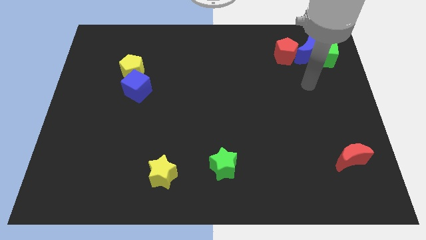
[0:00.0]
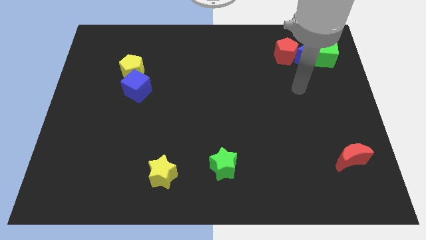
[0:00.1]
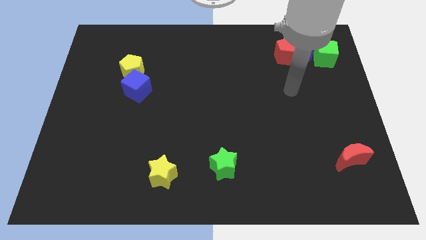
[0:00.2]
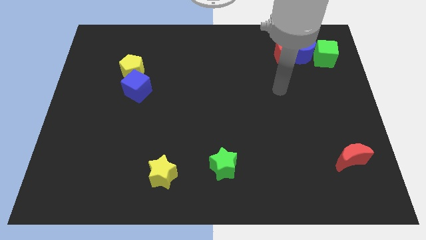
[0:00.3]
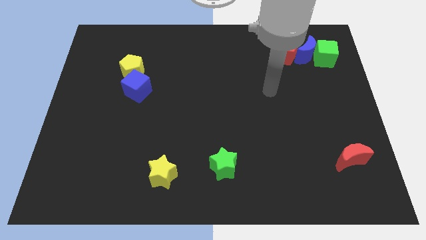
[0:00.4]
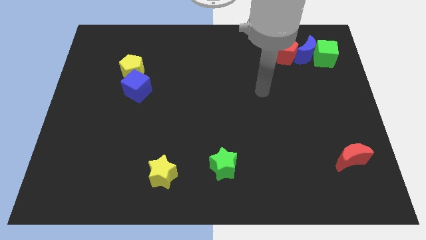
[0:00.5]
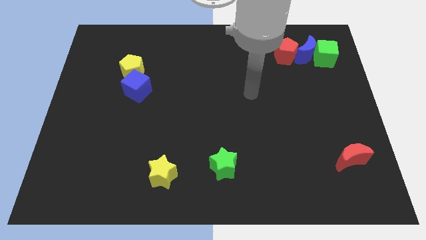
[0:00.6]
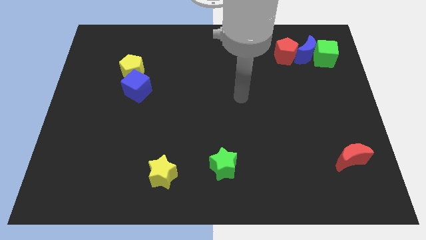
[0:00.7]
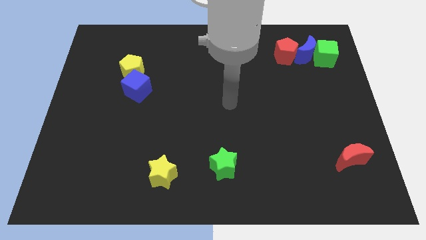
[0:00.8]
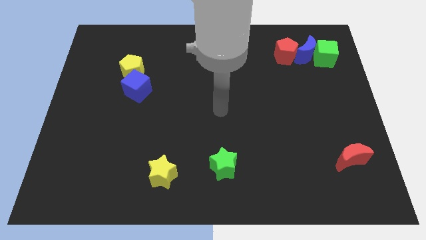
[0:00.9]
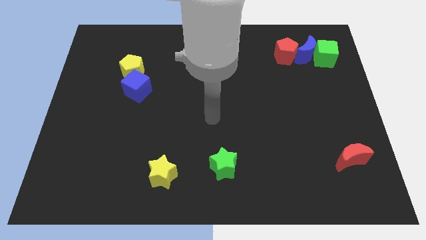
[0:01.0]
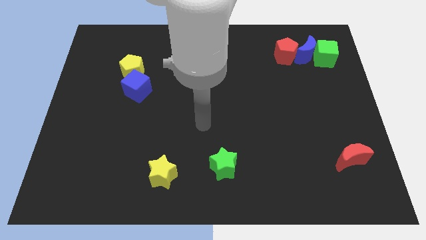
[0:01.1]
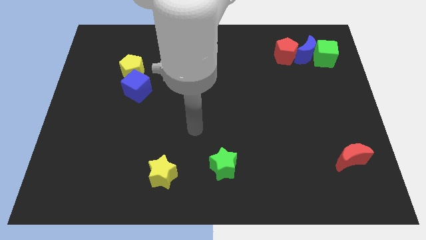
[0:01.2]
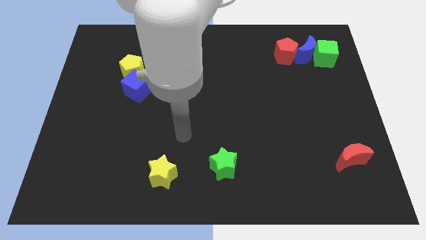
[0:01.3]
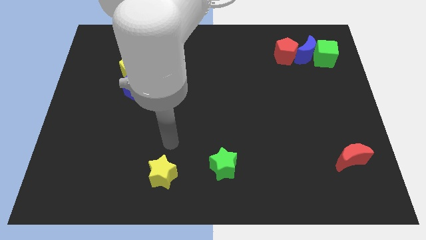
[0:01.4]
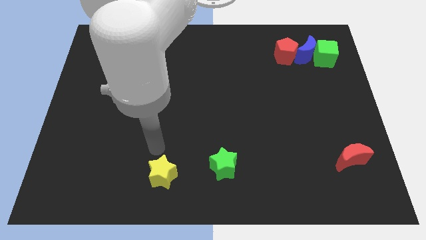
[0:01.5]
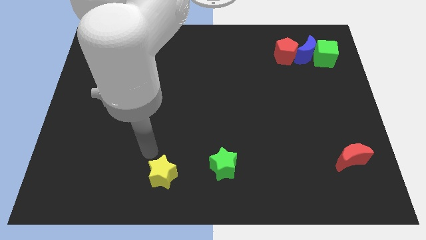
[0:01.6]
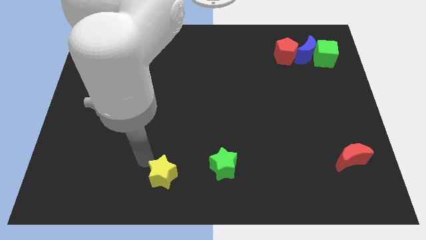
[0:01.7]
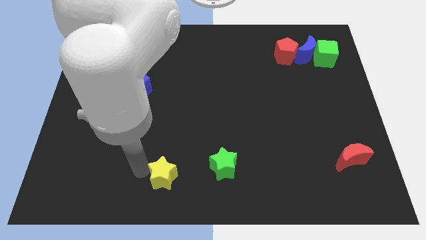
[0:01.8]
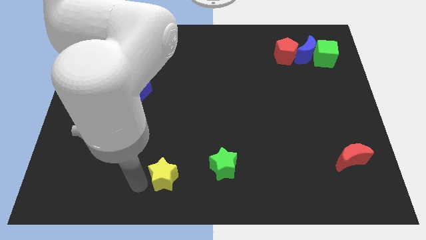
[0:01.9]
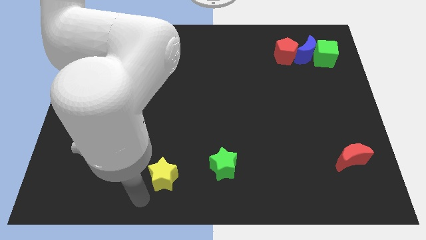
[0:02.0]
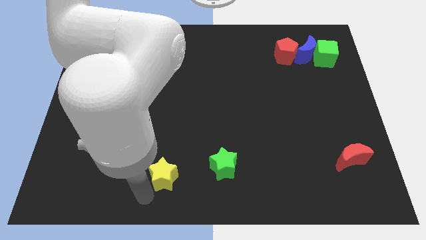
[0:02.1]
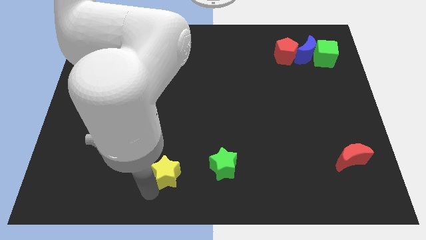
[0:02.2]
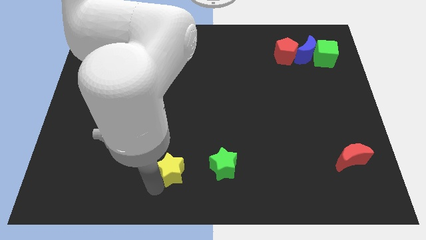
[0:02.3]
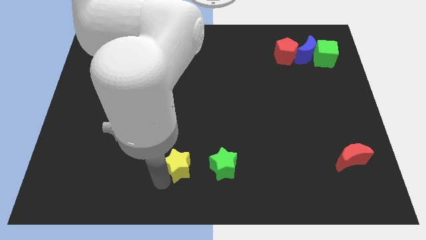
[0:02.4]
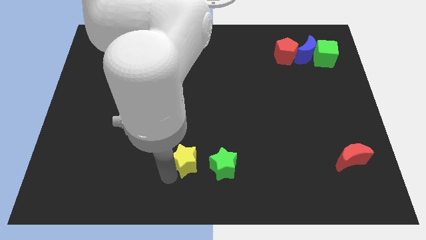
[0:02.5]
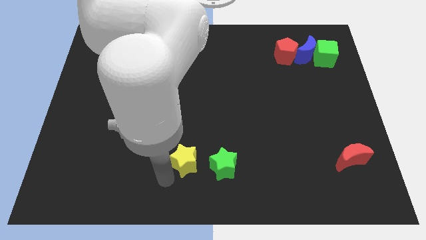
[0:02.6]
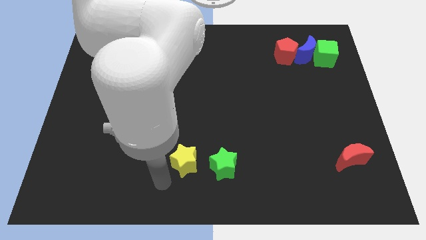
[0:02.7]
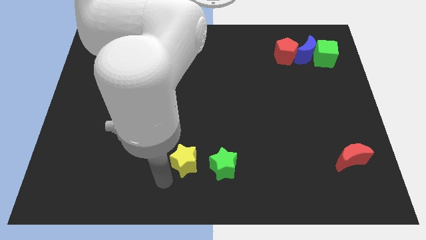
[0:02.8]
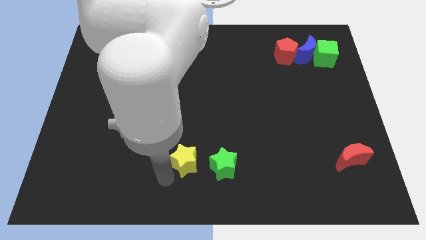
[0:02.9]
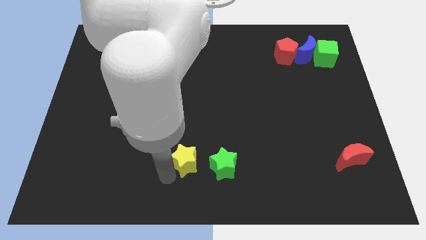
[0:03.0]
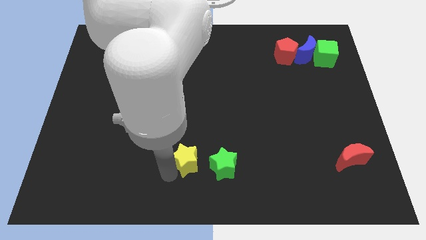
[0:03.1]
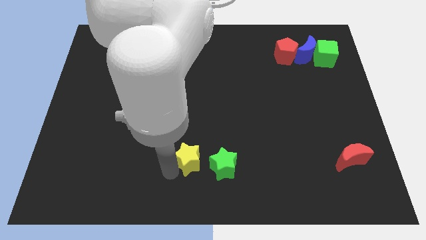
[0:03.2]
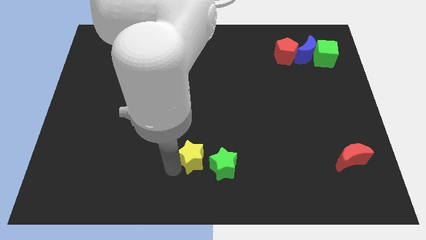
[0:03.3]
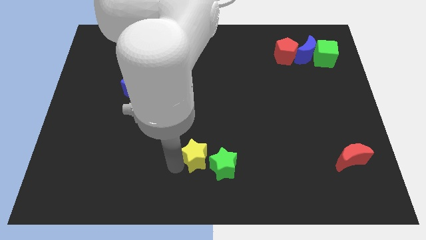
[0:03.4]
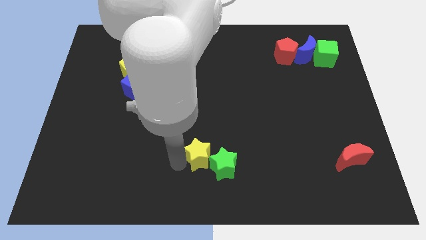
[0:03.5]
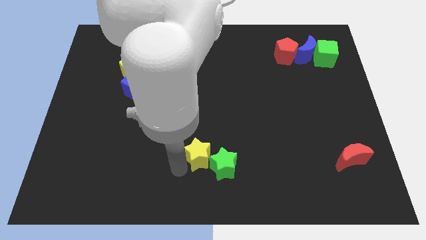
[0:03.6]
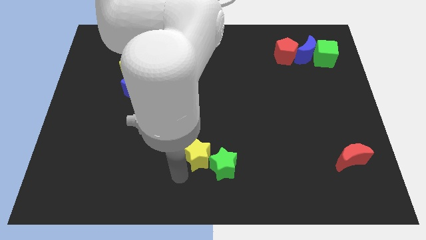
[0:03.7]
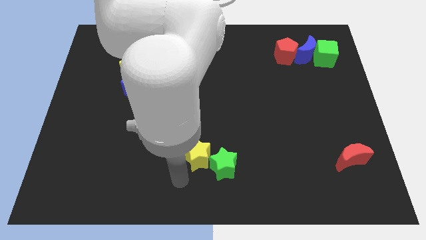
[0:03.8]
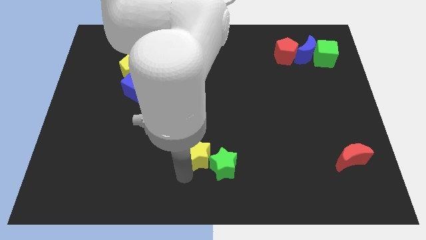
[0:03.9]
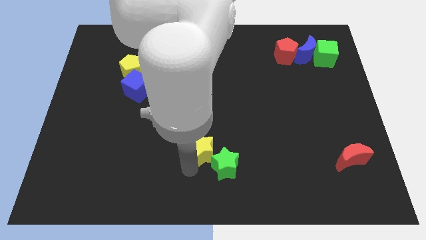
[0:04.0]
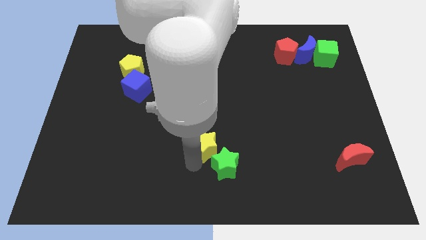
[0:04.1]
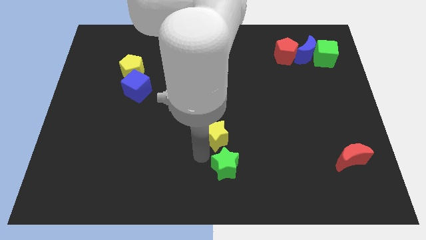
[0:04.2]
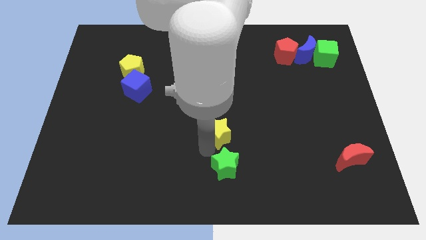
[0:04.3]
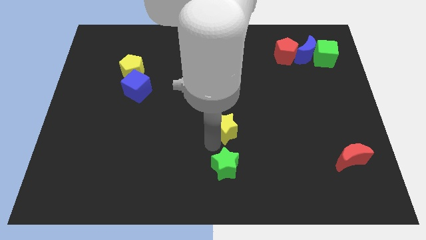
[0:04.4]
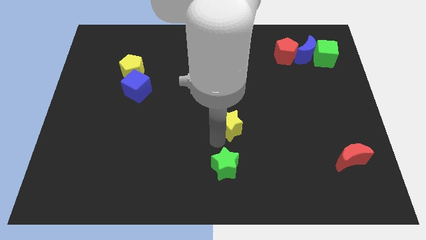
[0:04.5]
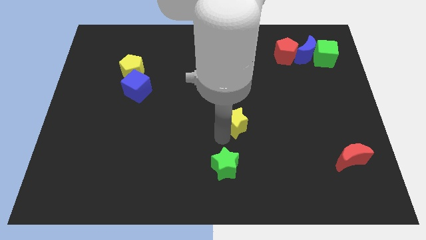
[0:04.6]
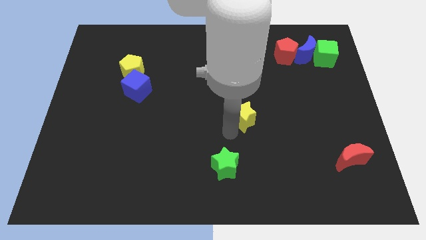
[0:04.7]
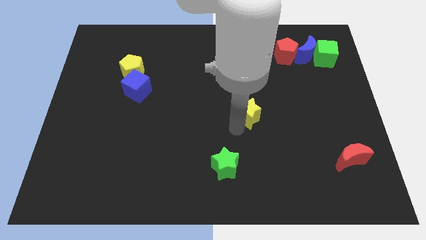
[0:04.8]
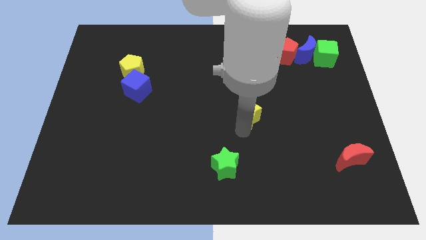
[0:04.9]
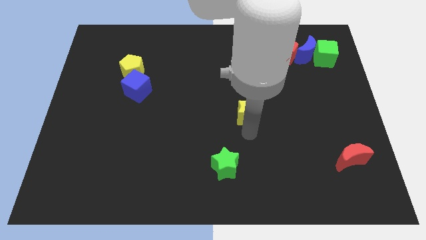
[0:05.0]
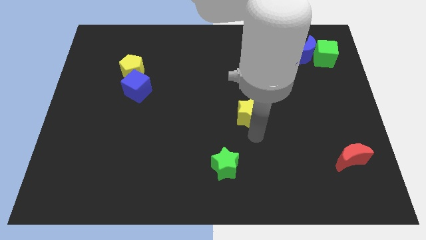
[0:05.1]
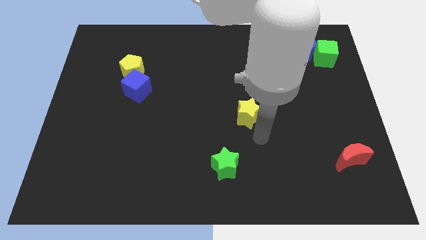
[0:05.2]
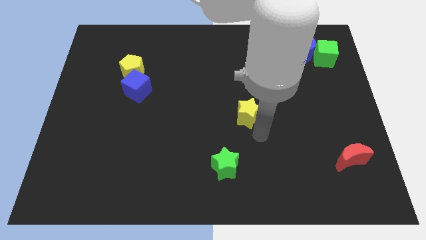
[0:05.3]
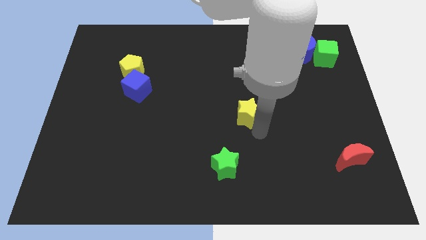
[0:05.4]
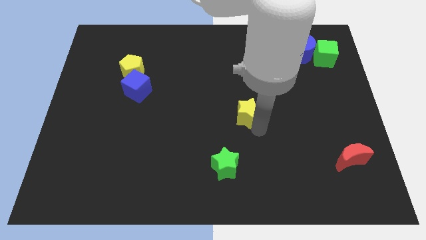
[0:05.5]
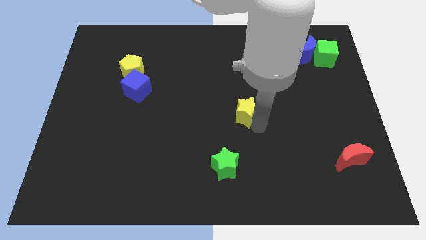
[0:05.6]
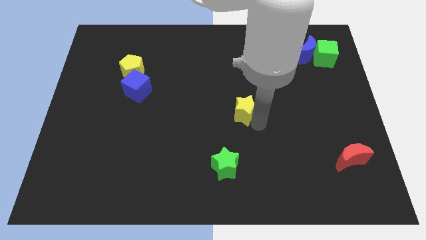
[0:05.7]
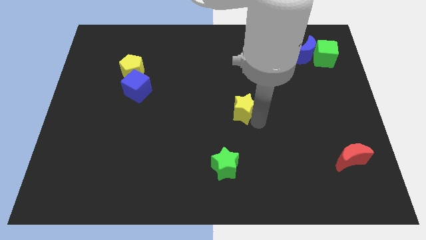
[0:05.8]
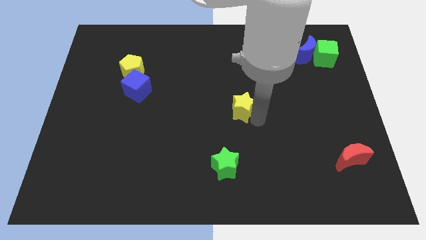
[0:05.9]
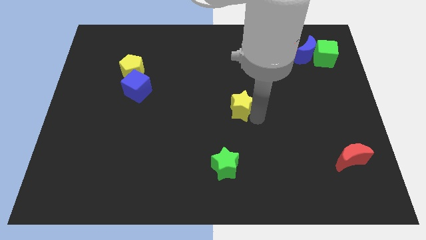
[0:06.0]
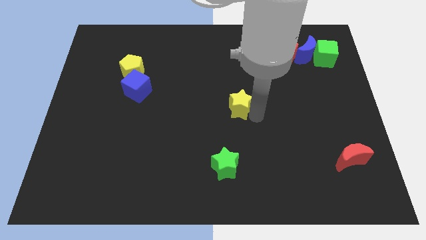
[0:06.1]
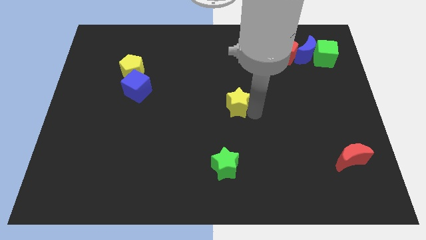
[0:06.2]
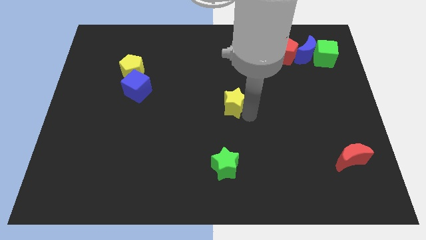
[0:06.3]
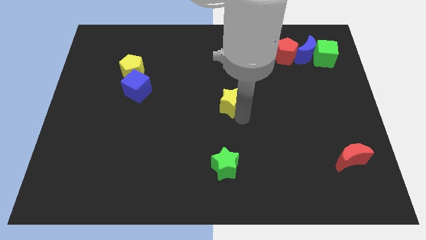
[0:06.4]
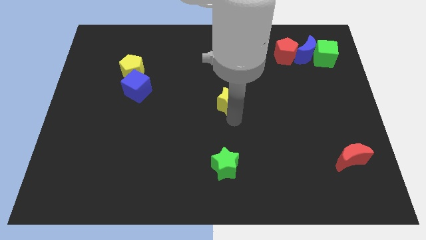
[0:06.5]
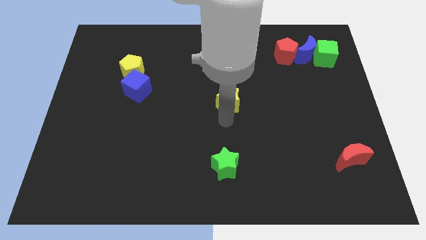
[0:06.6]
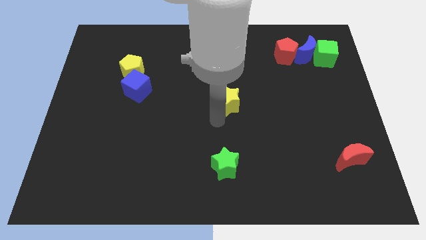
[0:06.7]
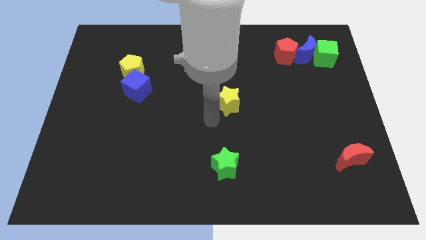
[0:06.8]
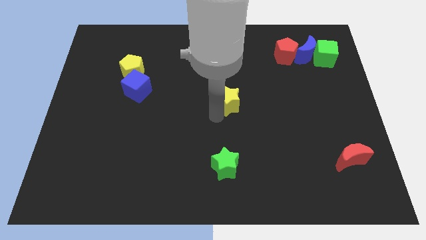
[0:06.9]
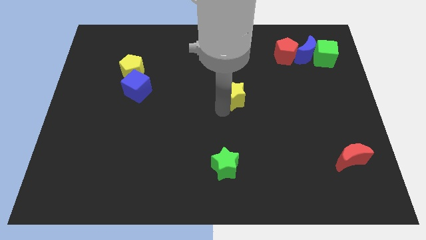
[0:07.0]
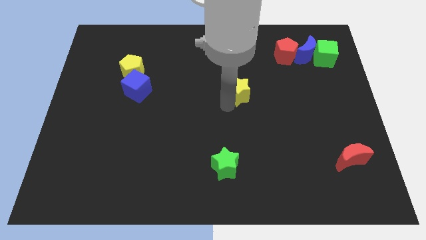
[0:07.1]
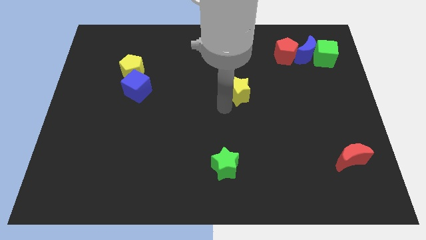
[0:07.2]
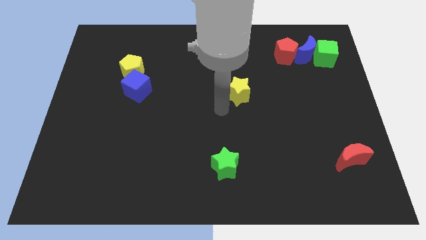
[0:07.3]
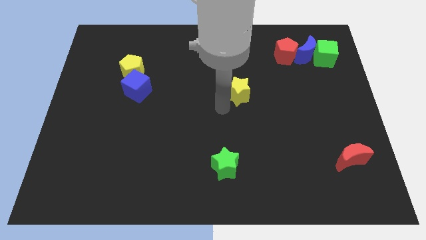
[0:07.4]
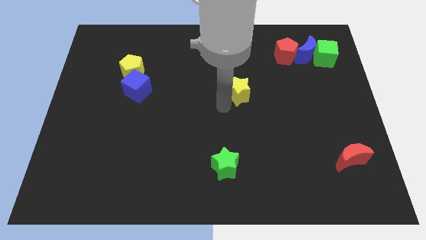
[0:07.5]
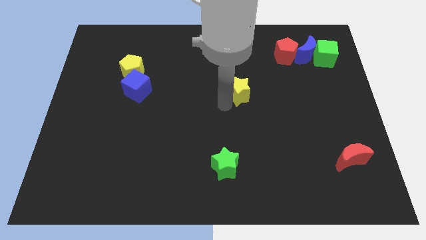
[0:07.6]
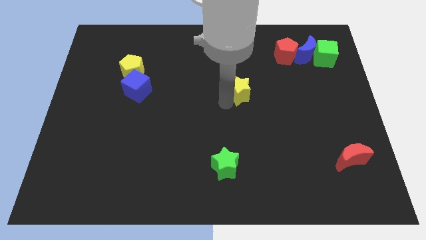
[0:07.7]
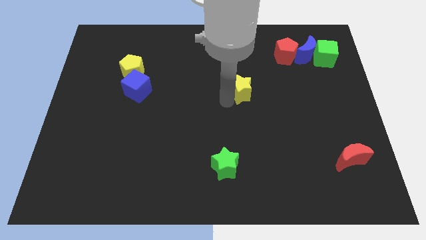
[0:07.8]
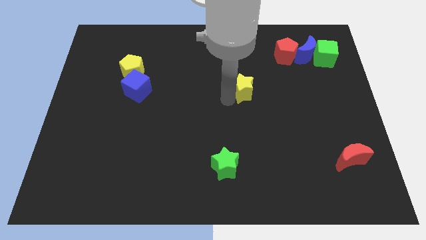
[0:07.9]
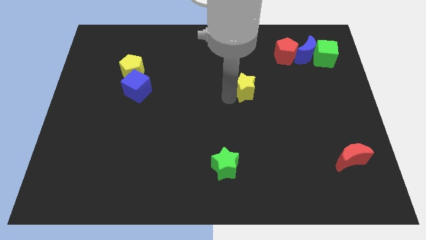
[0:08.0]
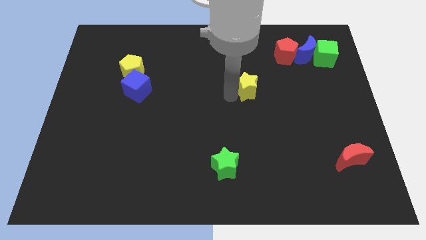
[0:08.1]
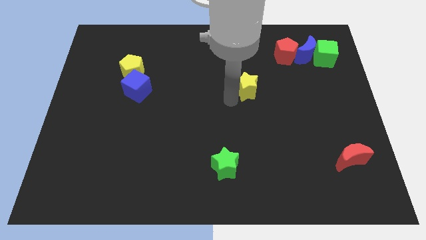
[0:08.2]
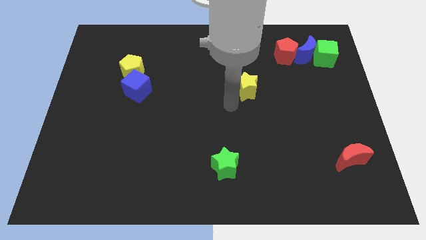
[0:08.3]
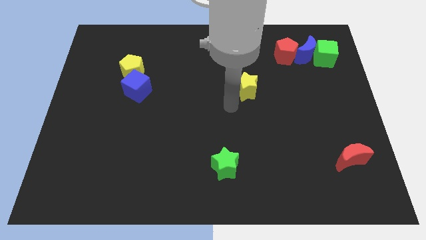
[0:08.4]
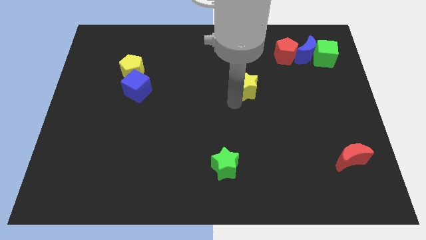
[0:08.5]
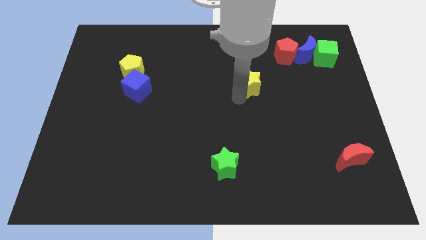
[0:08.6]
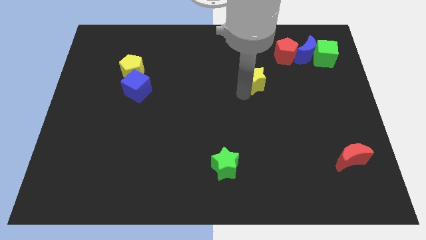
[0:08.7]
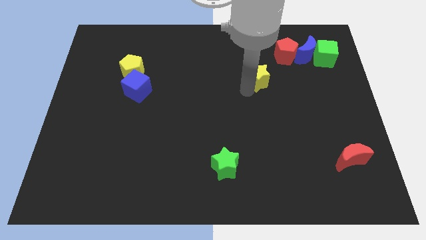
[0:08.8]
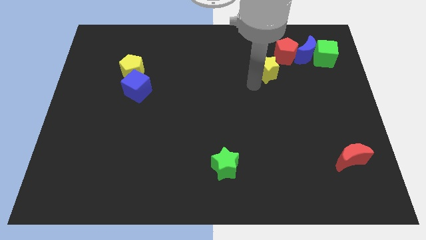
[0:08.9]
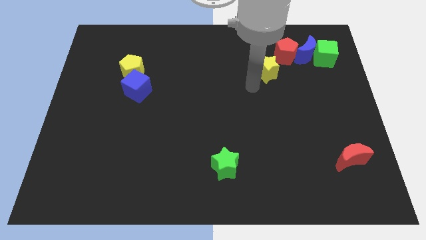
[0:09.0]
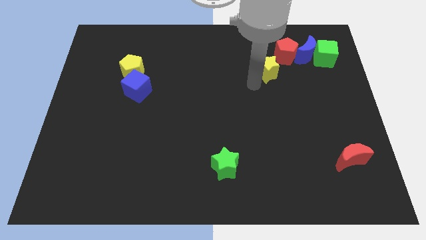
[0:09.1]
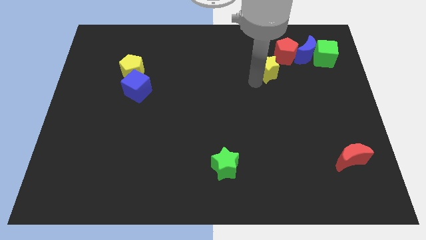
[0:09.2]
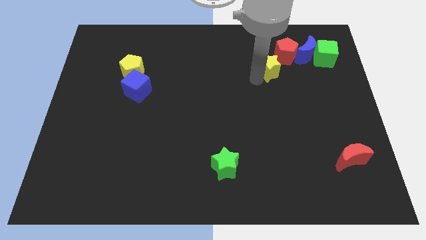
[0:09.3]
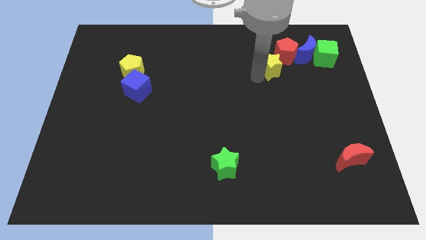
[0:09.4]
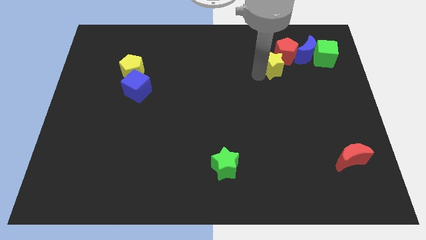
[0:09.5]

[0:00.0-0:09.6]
push the yellow star towards the red pentagon
